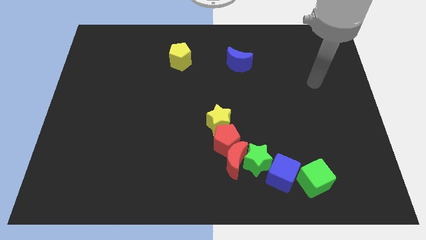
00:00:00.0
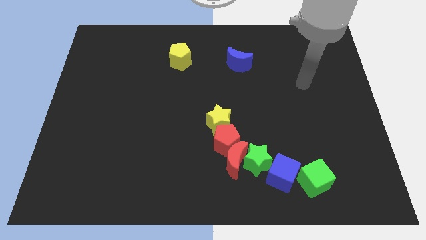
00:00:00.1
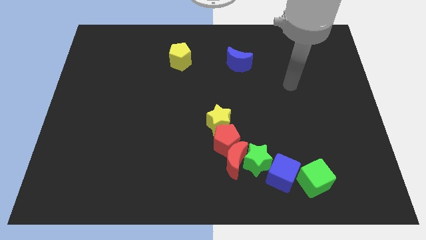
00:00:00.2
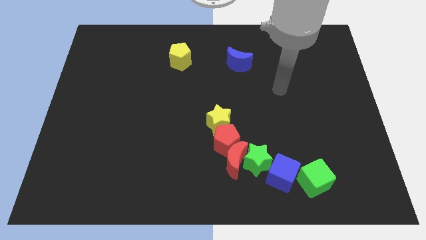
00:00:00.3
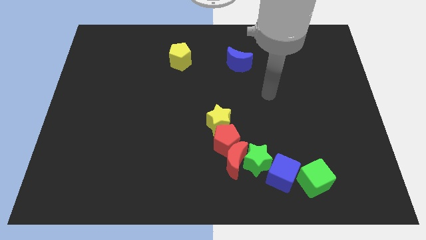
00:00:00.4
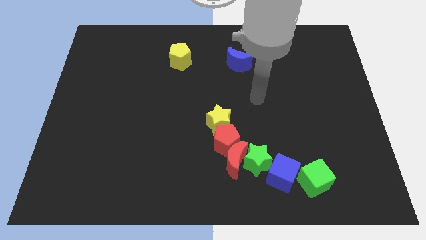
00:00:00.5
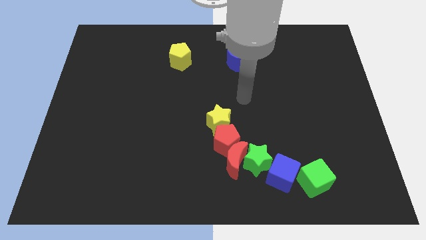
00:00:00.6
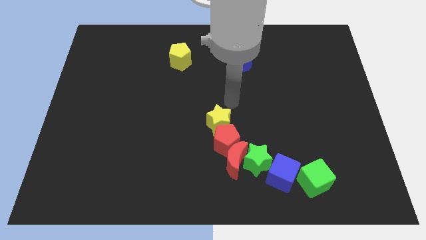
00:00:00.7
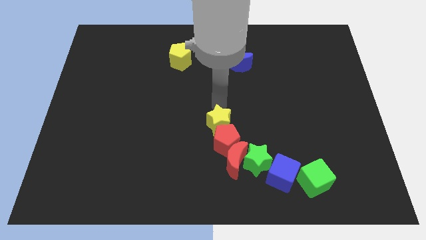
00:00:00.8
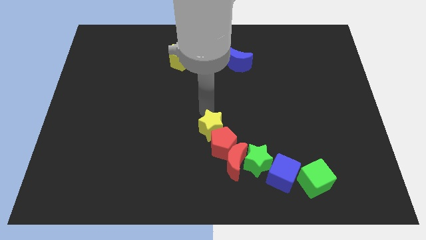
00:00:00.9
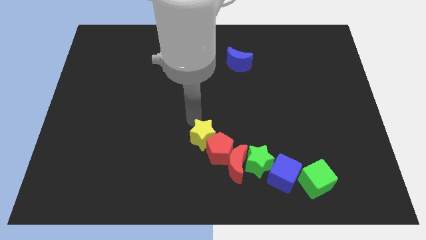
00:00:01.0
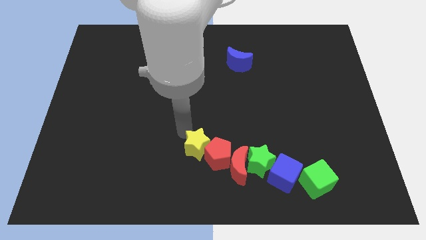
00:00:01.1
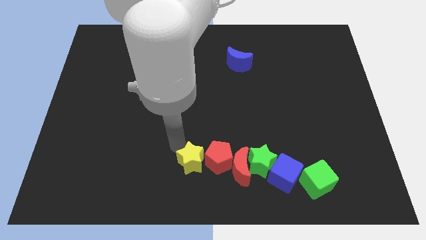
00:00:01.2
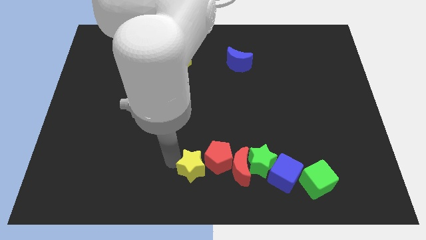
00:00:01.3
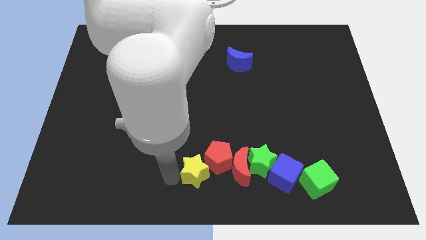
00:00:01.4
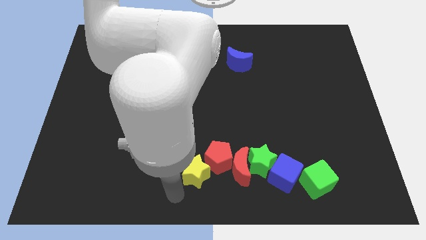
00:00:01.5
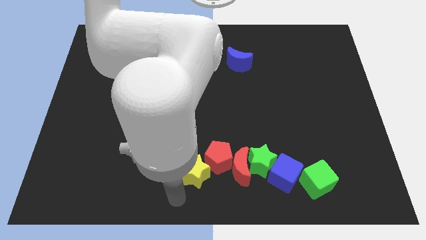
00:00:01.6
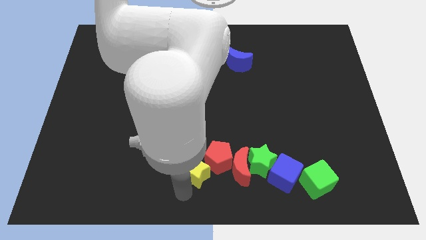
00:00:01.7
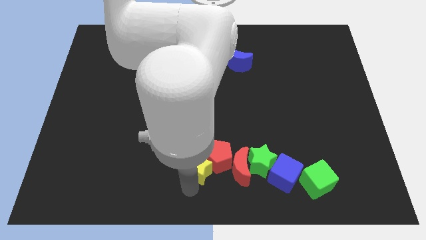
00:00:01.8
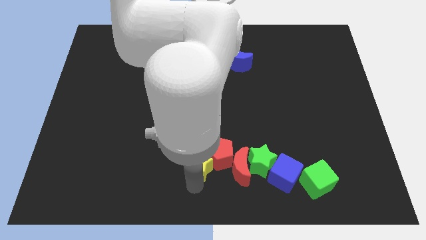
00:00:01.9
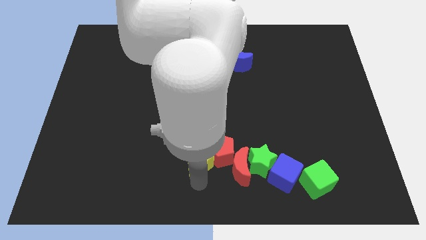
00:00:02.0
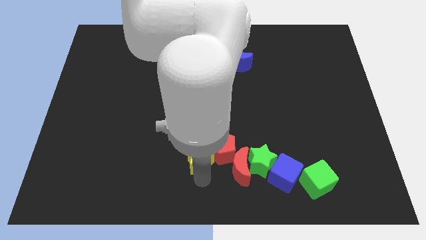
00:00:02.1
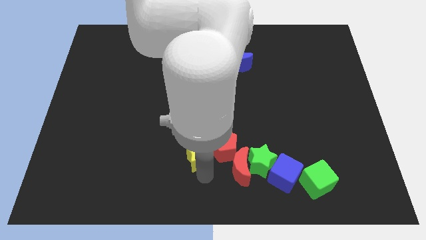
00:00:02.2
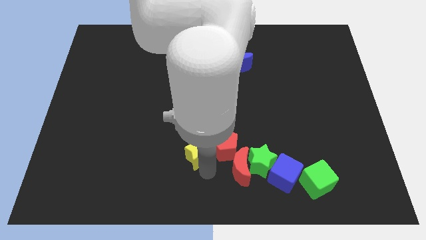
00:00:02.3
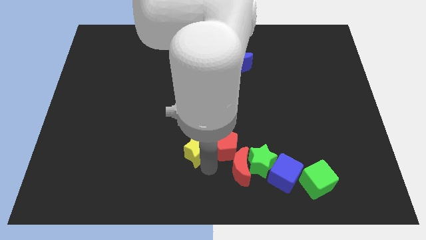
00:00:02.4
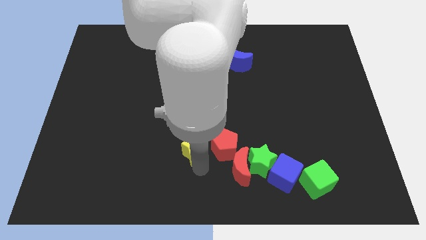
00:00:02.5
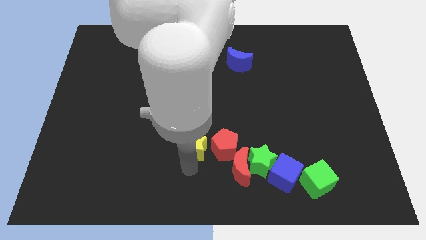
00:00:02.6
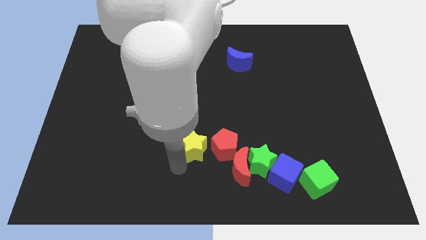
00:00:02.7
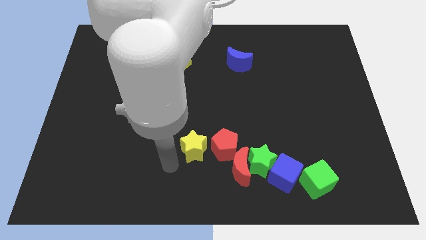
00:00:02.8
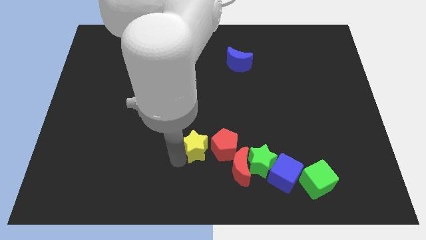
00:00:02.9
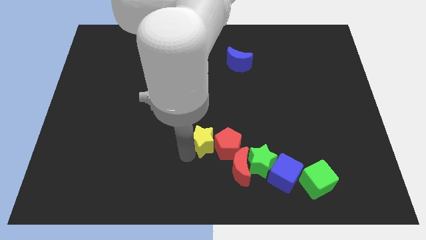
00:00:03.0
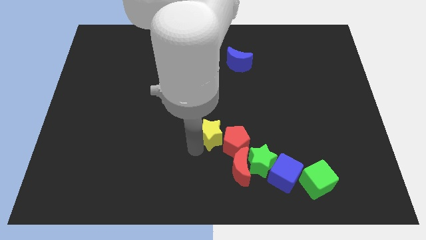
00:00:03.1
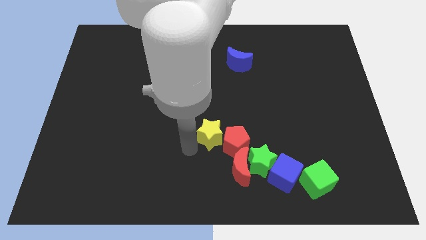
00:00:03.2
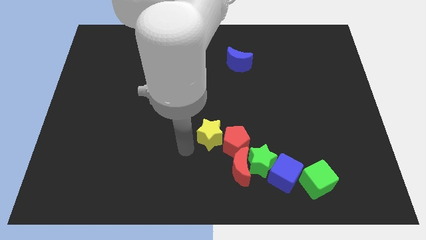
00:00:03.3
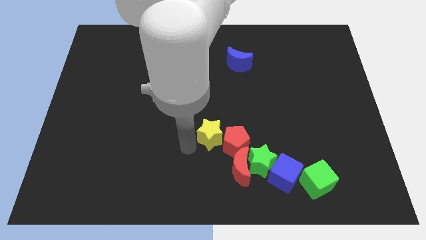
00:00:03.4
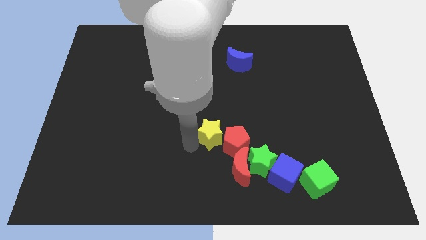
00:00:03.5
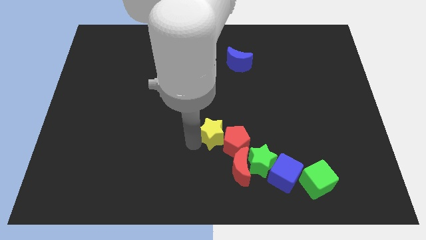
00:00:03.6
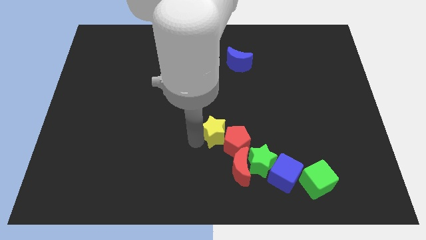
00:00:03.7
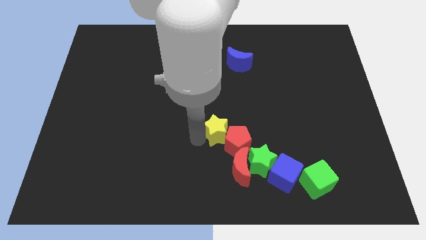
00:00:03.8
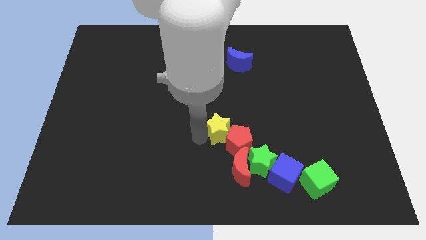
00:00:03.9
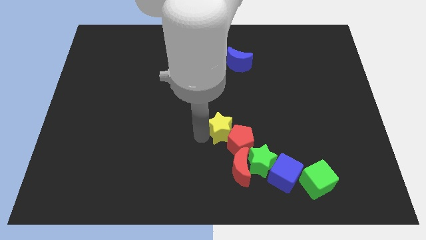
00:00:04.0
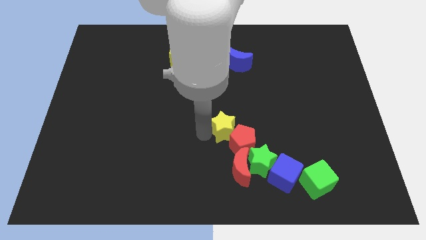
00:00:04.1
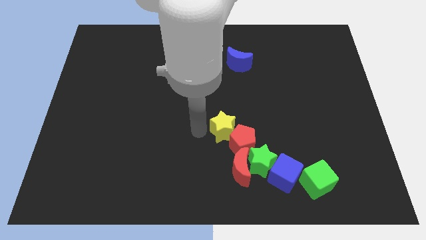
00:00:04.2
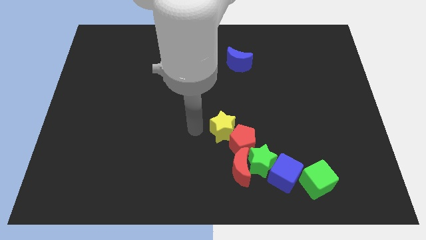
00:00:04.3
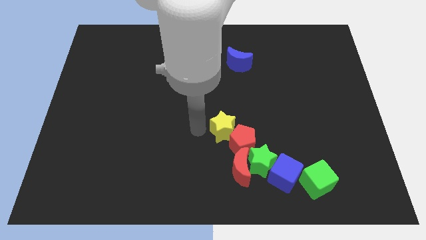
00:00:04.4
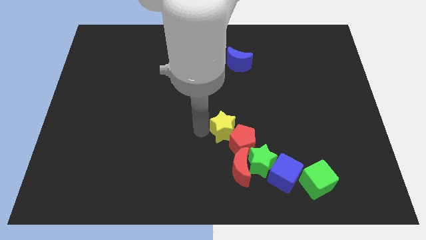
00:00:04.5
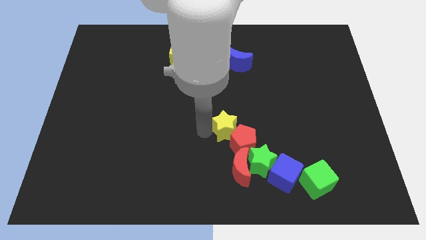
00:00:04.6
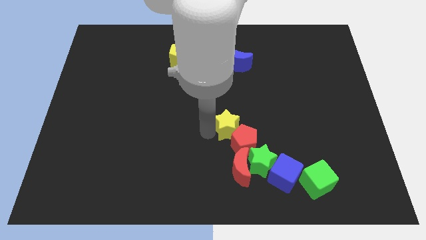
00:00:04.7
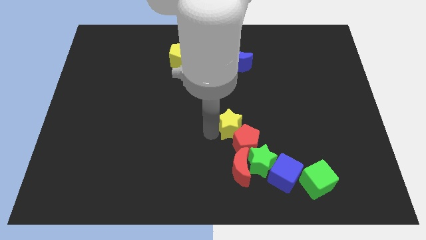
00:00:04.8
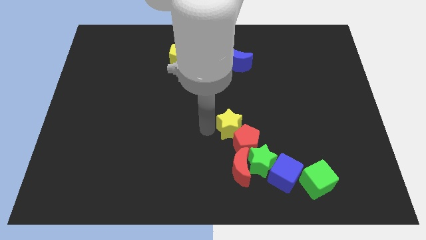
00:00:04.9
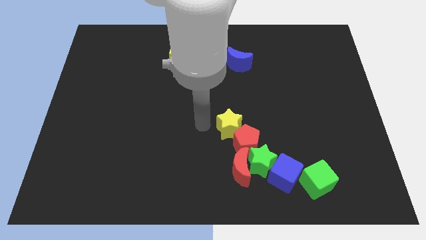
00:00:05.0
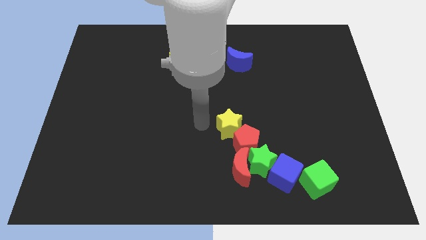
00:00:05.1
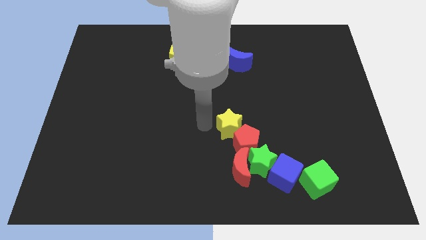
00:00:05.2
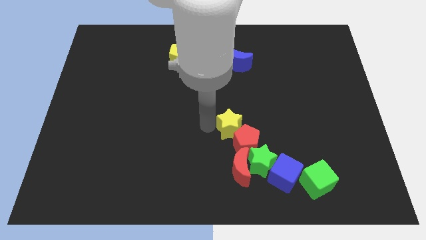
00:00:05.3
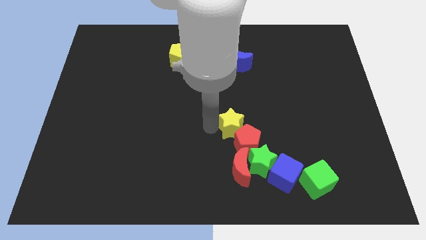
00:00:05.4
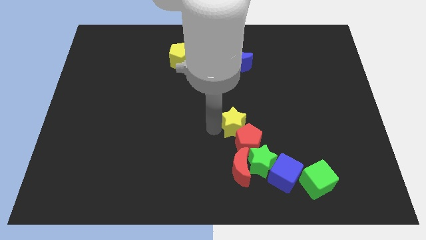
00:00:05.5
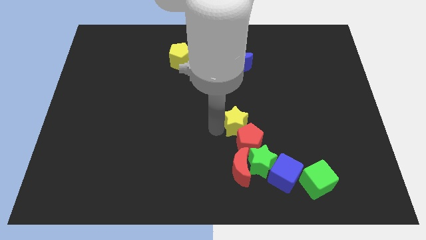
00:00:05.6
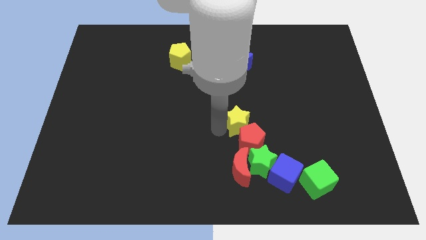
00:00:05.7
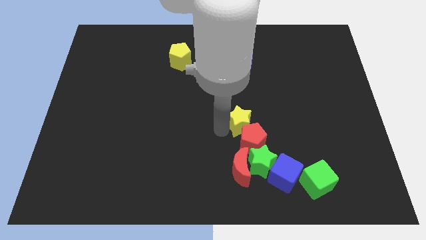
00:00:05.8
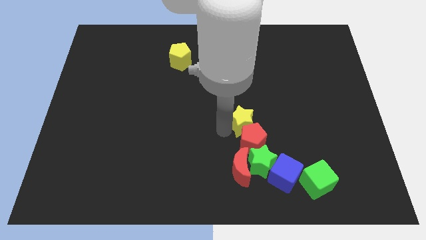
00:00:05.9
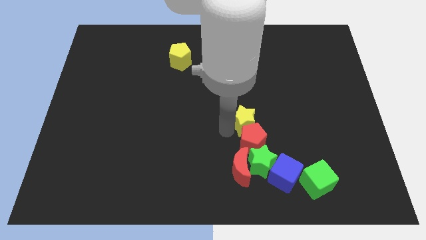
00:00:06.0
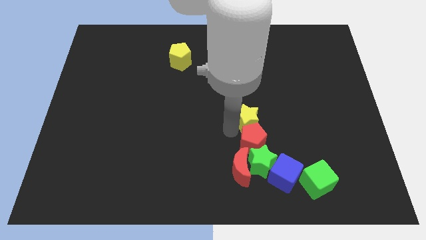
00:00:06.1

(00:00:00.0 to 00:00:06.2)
slightly push the yellow star to the right

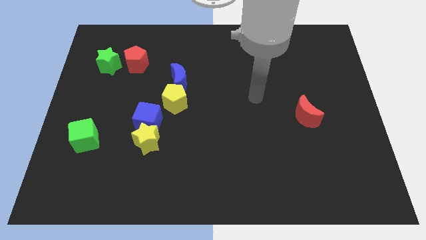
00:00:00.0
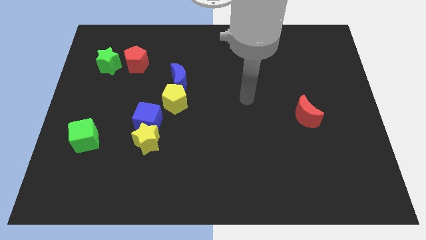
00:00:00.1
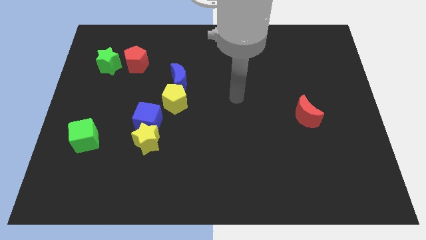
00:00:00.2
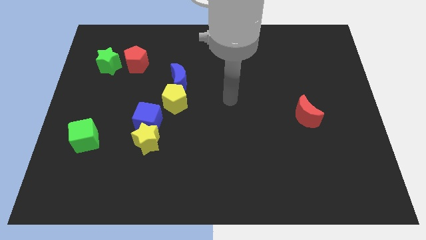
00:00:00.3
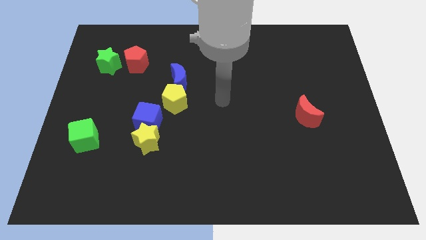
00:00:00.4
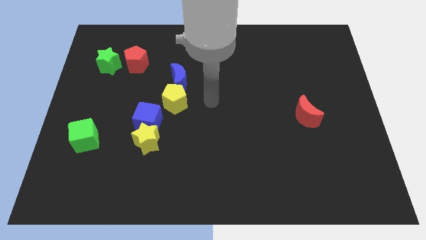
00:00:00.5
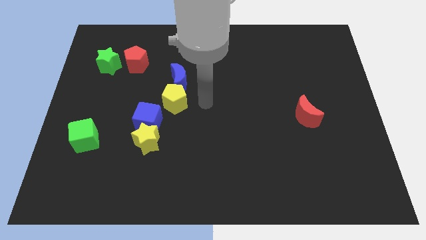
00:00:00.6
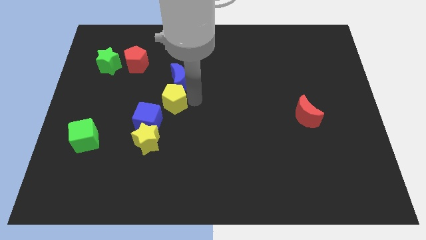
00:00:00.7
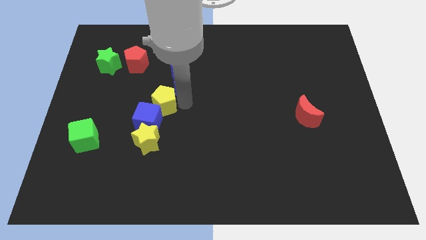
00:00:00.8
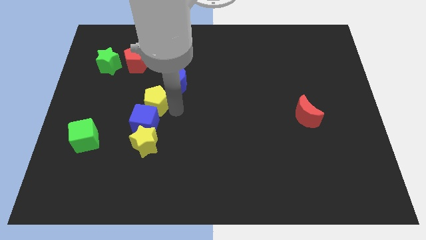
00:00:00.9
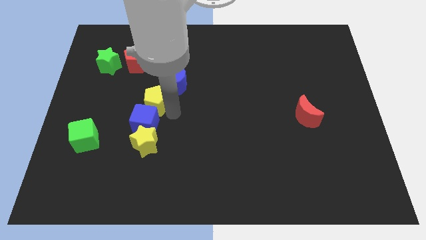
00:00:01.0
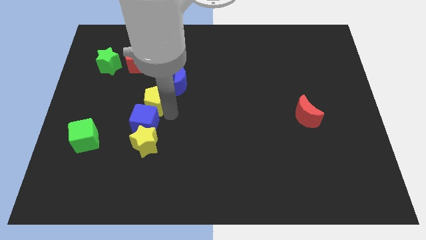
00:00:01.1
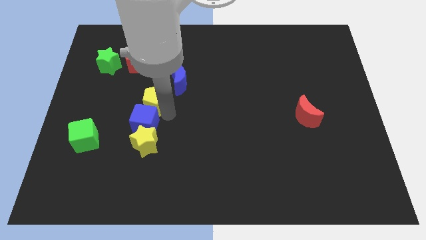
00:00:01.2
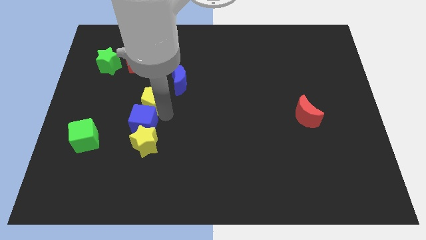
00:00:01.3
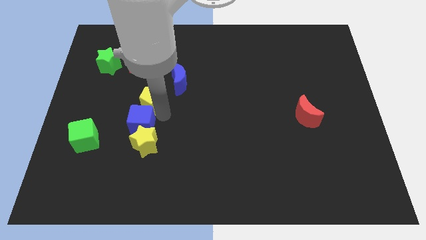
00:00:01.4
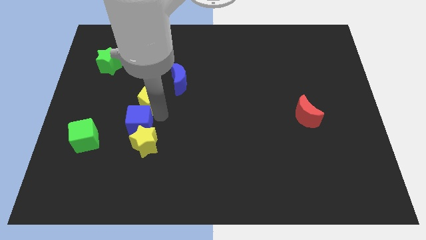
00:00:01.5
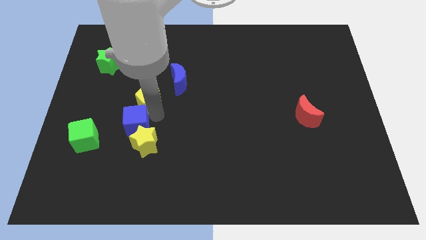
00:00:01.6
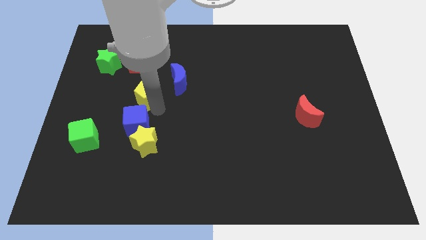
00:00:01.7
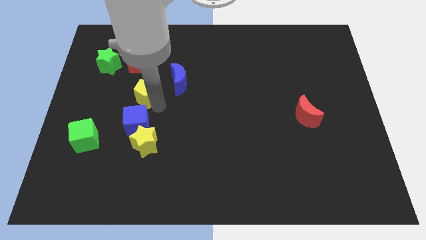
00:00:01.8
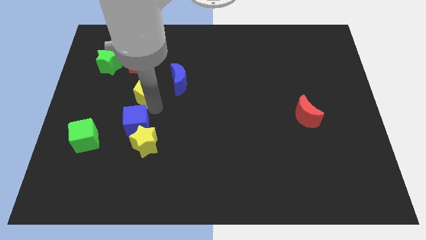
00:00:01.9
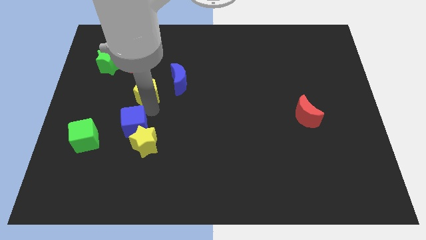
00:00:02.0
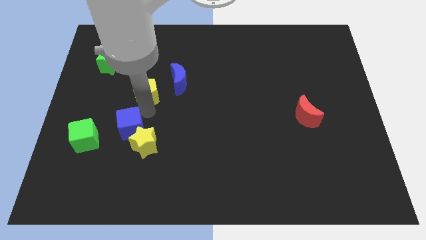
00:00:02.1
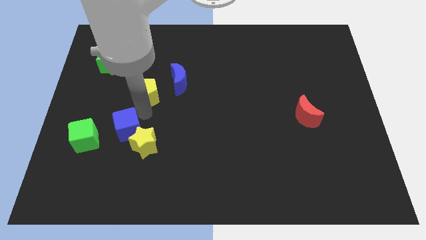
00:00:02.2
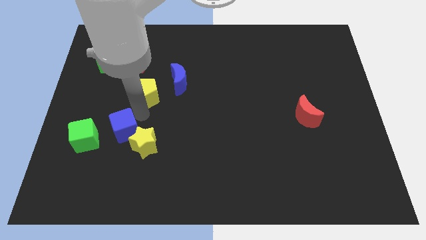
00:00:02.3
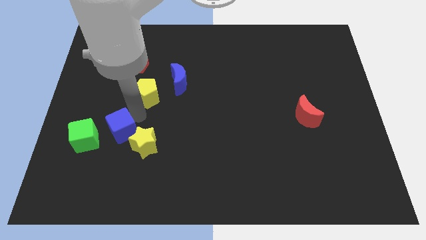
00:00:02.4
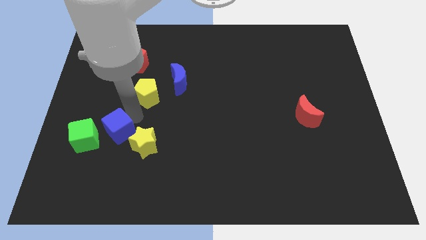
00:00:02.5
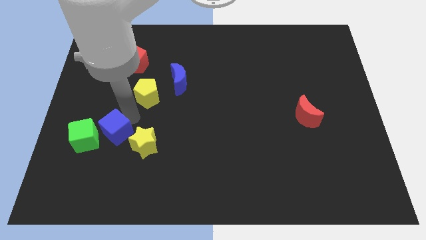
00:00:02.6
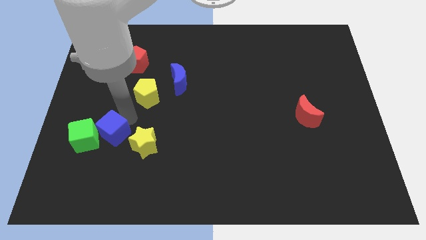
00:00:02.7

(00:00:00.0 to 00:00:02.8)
slightly move the blue cube down and to the left diagonally
